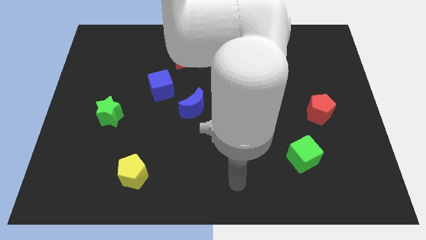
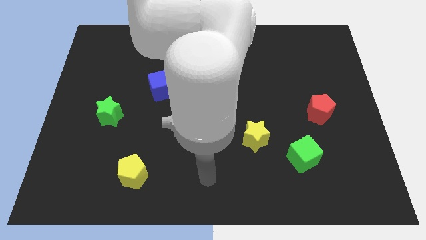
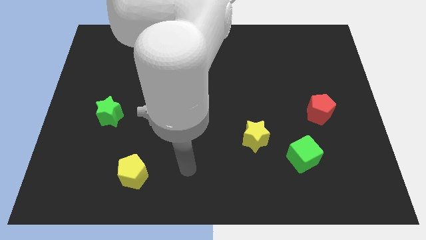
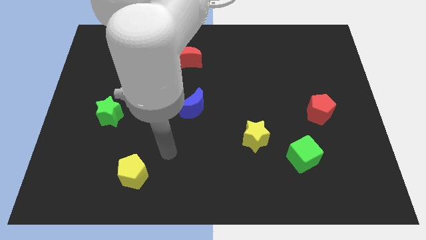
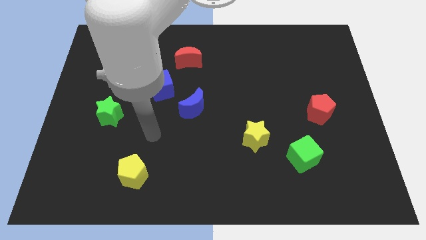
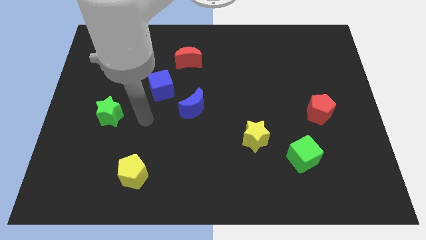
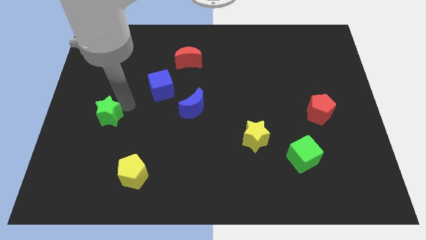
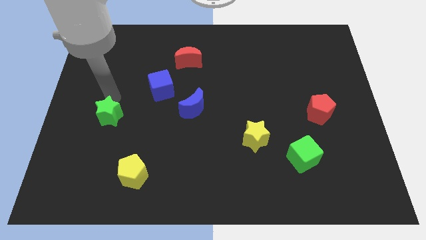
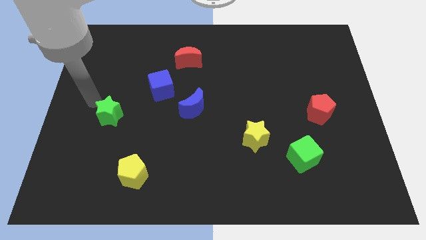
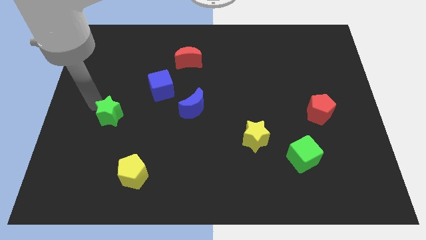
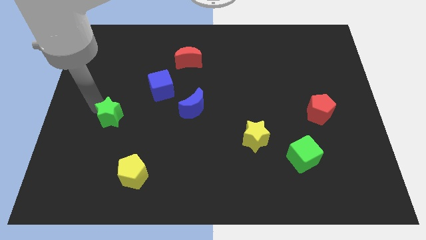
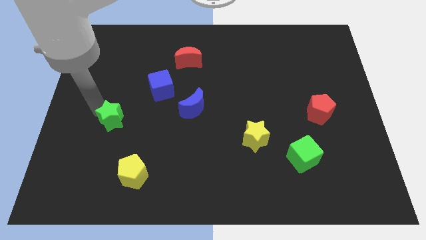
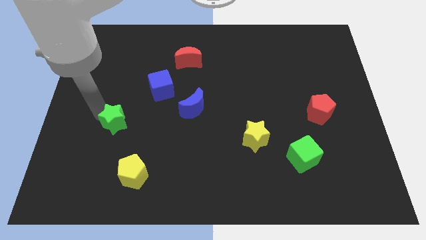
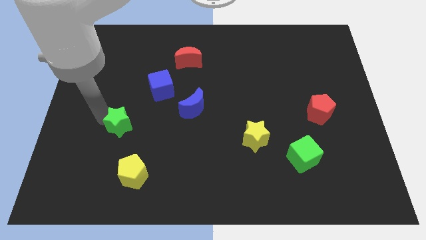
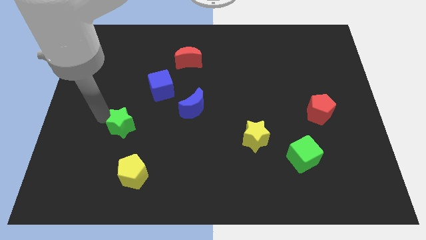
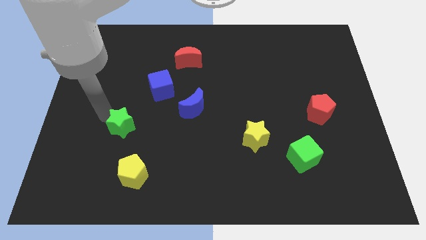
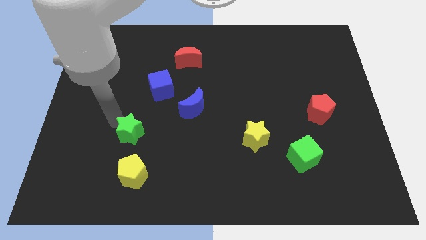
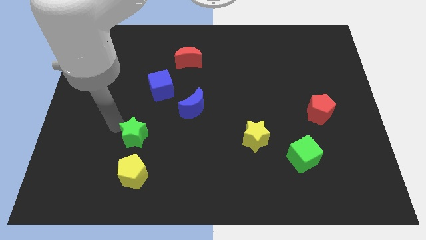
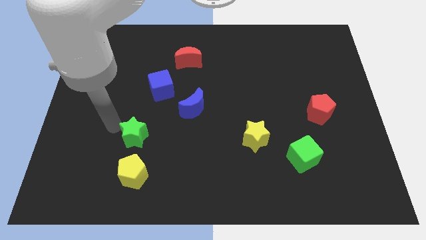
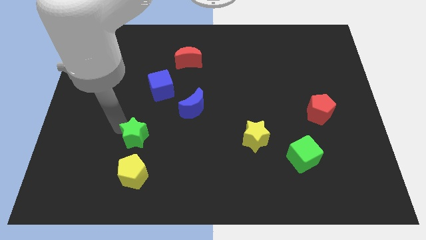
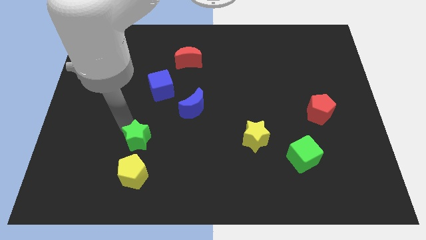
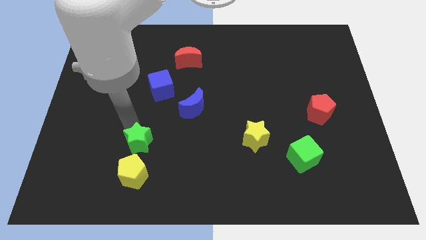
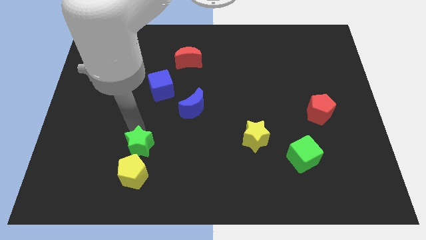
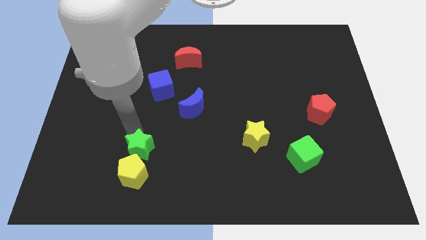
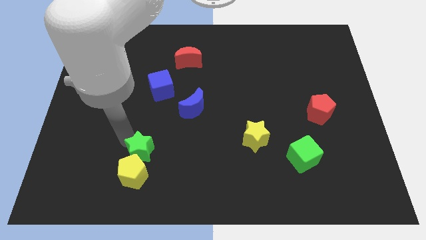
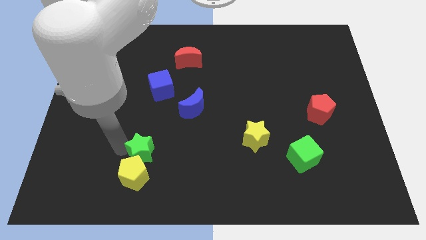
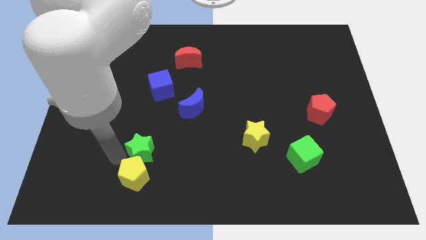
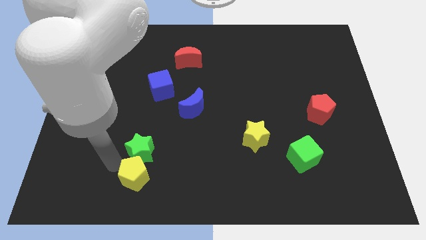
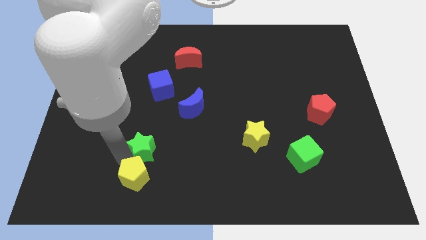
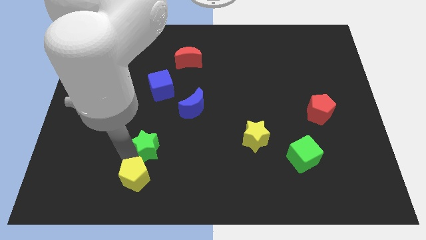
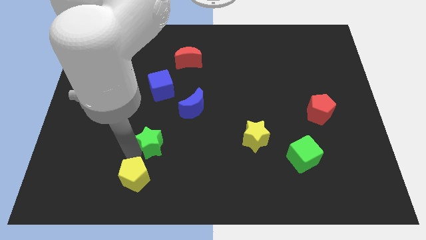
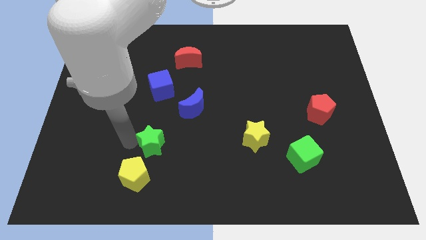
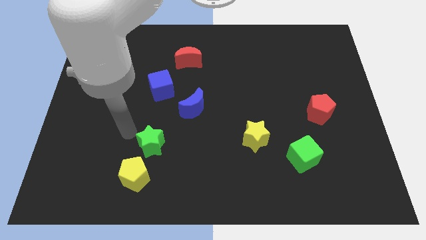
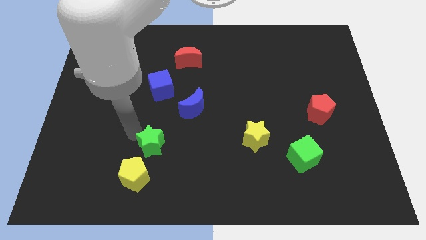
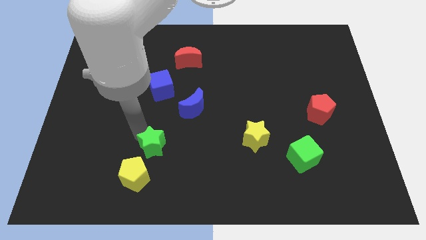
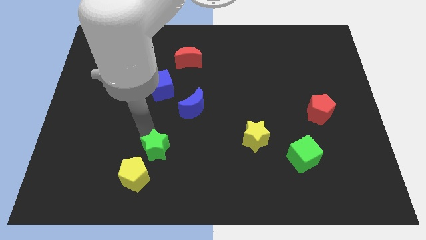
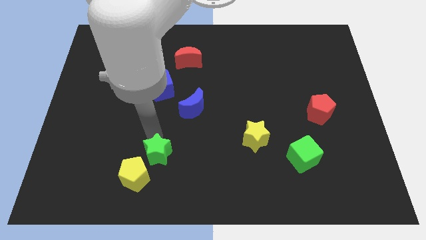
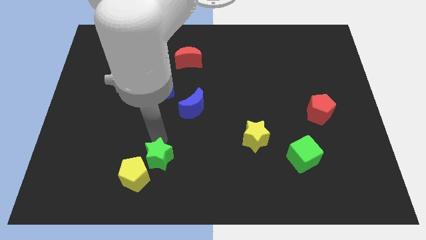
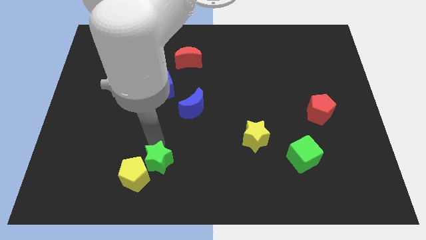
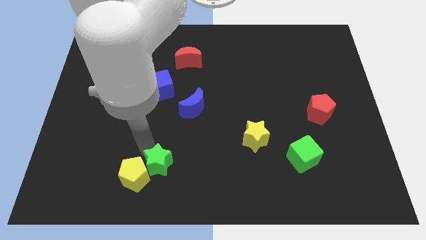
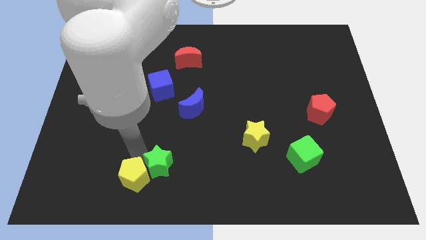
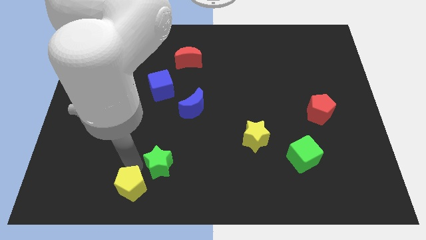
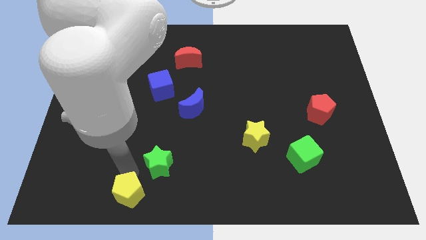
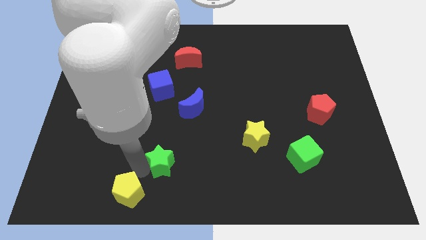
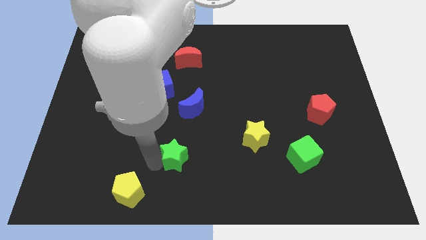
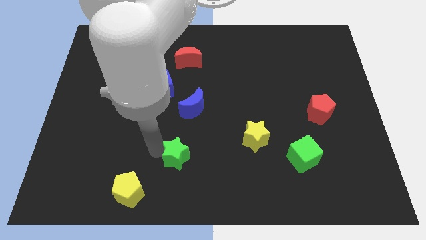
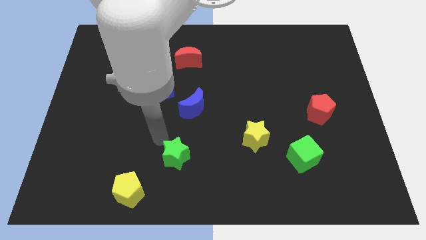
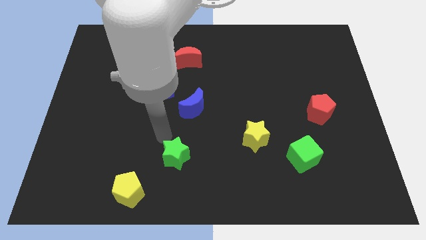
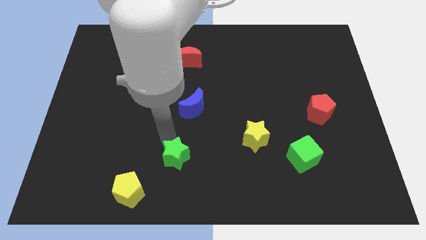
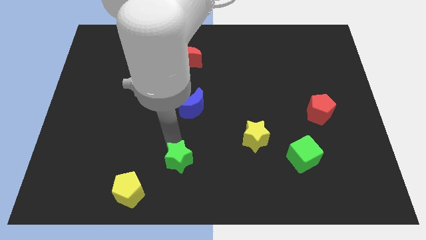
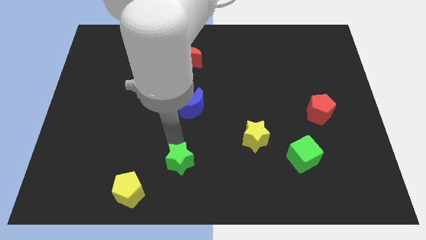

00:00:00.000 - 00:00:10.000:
move the green star to the bottom side

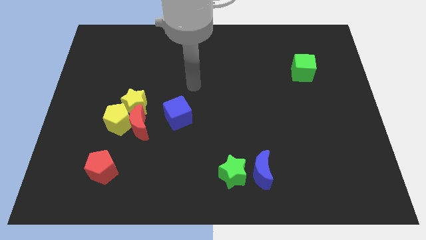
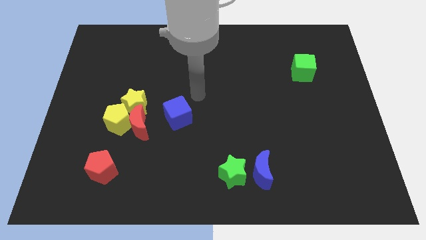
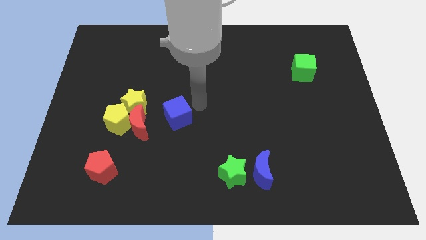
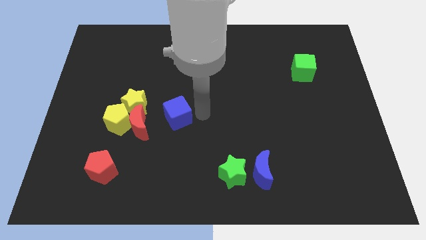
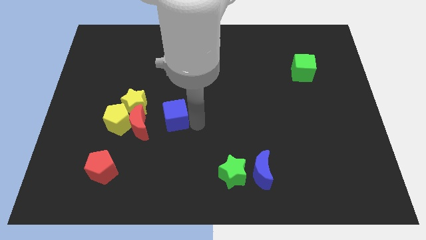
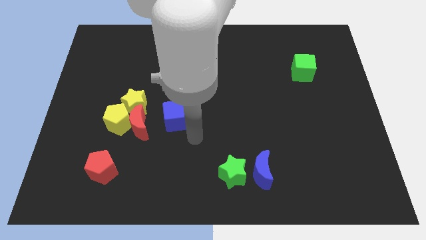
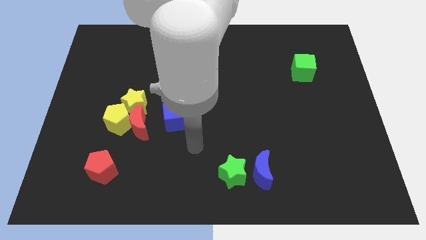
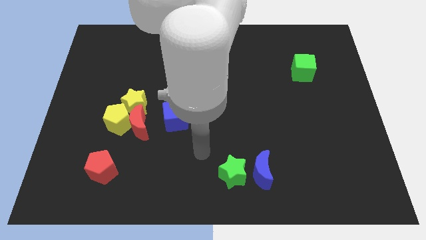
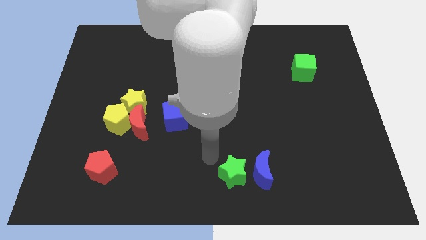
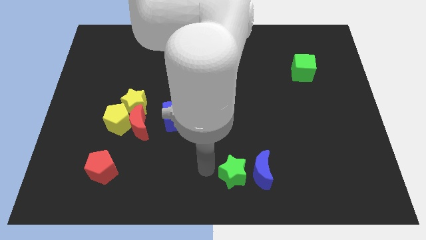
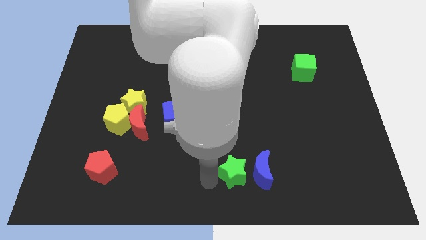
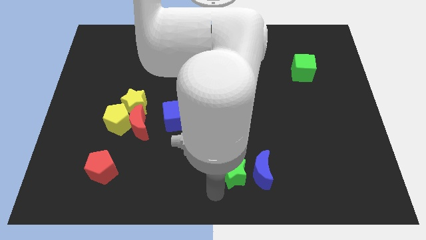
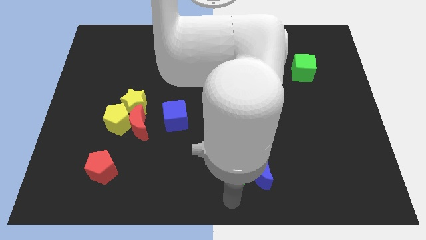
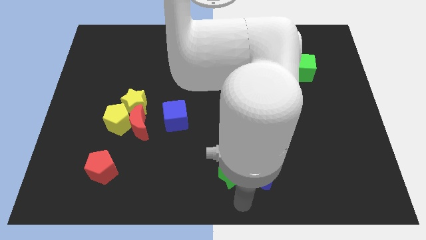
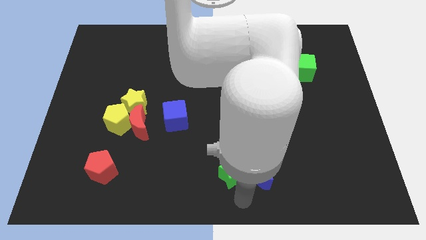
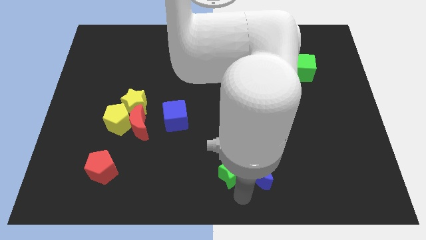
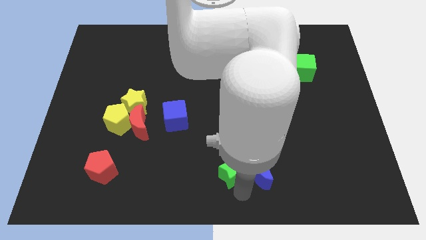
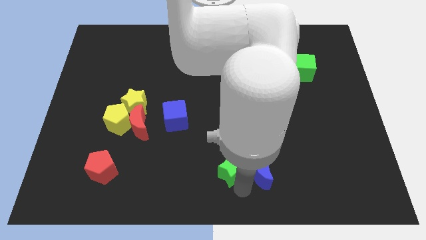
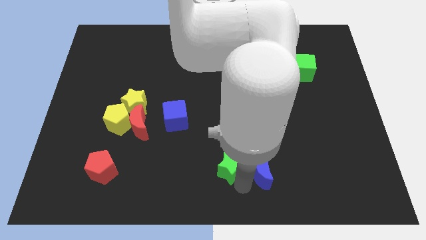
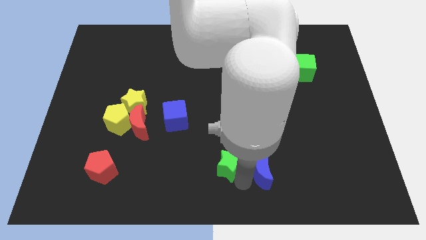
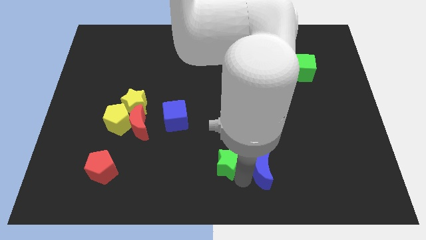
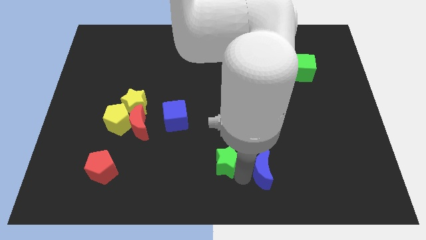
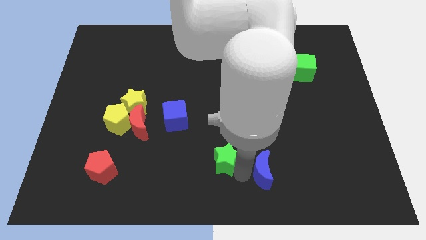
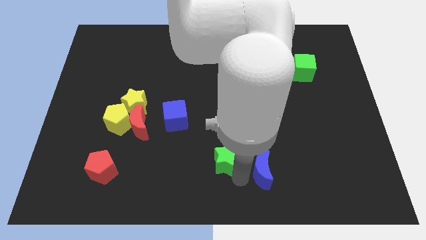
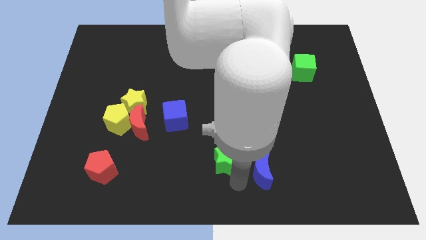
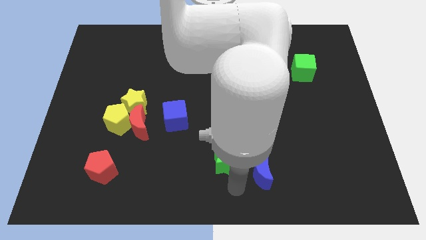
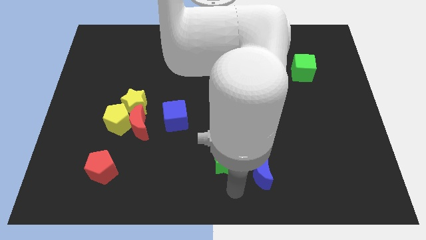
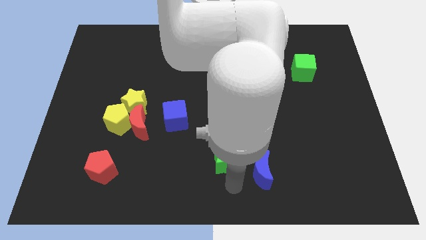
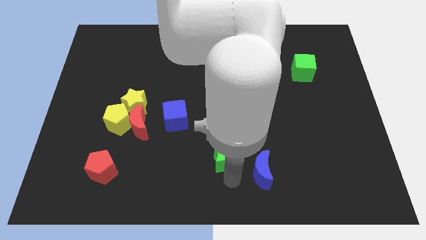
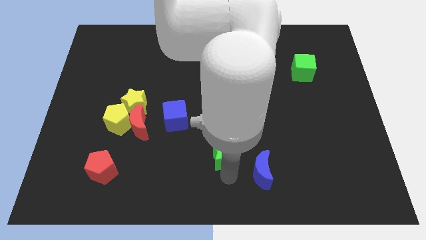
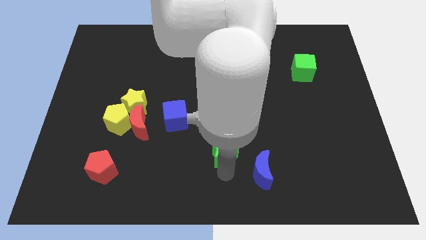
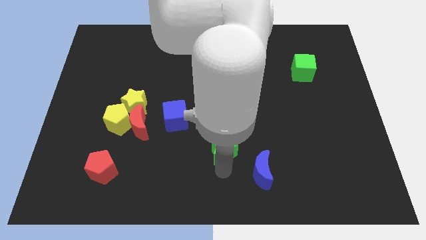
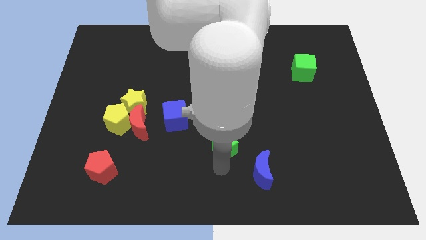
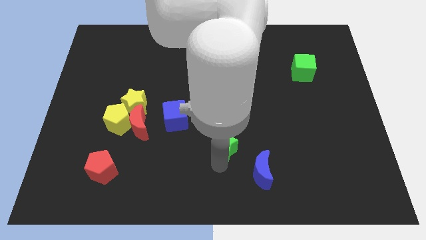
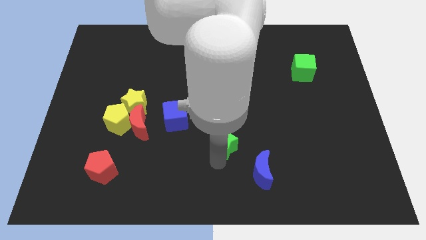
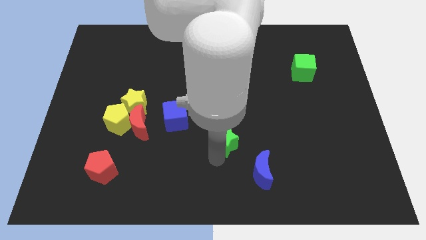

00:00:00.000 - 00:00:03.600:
put the green star to the center of the board
